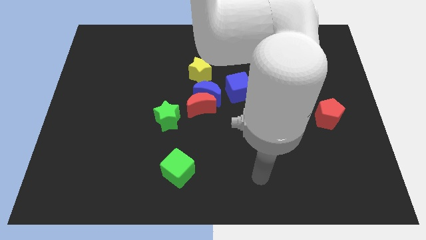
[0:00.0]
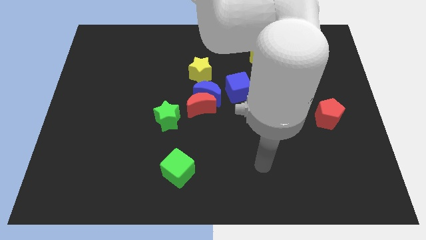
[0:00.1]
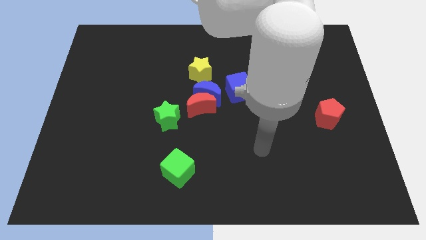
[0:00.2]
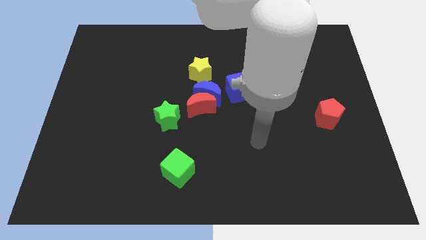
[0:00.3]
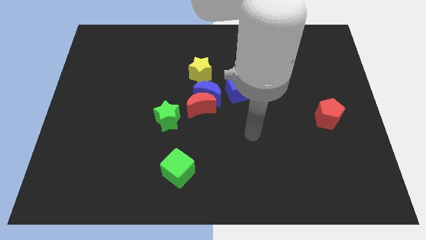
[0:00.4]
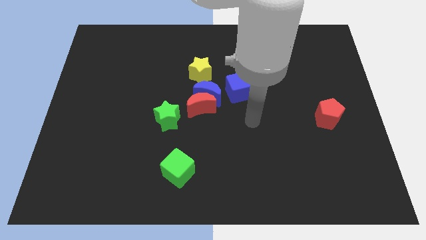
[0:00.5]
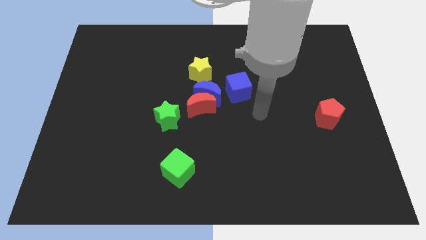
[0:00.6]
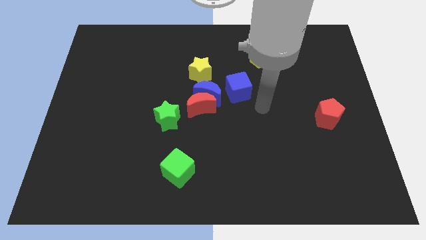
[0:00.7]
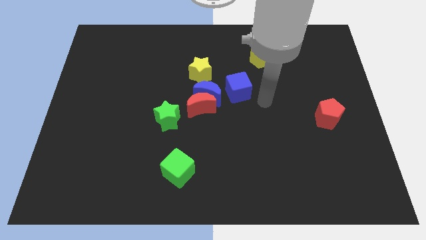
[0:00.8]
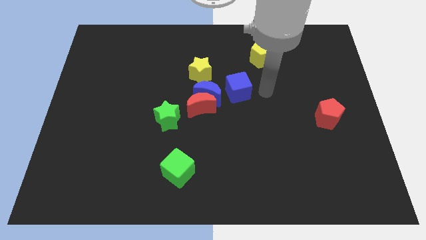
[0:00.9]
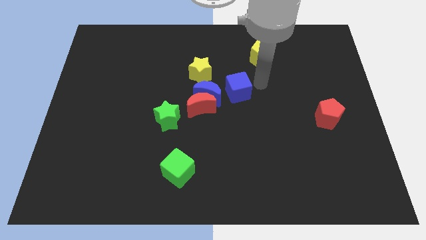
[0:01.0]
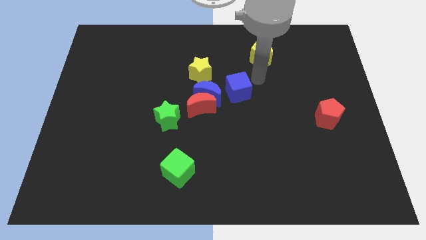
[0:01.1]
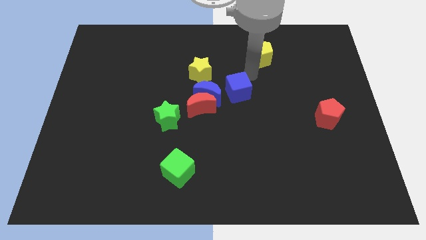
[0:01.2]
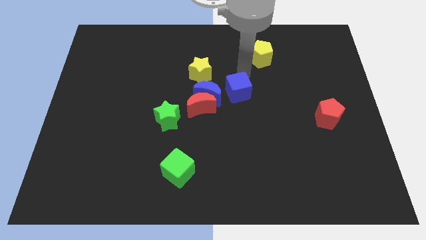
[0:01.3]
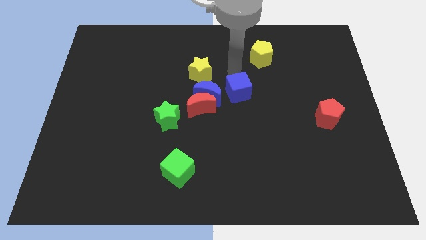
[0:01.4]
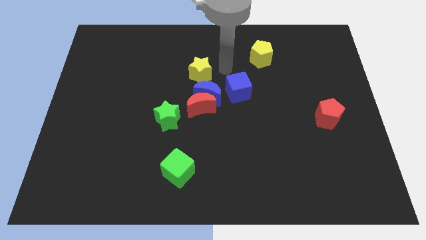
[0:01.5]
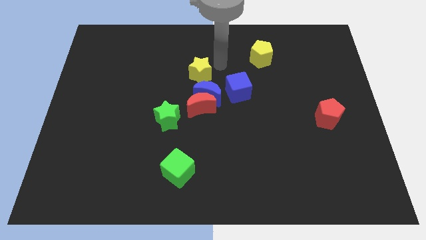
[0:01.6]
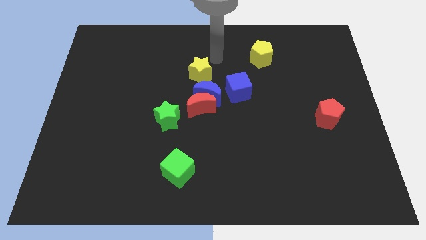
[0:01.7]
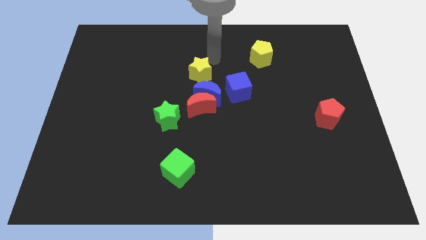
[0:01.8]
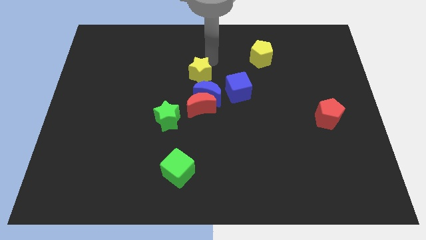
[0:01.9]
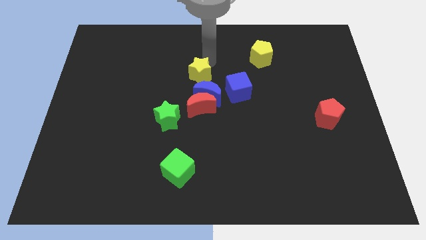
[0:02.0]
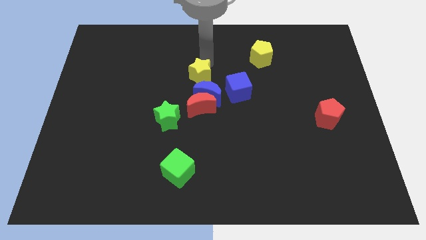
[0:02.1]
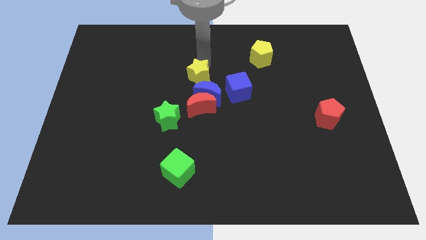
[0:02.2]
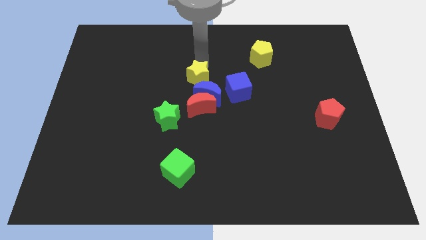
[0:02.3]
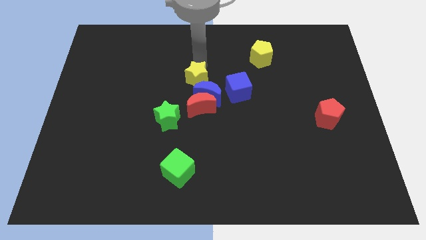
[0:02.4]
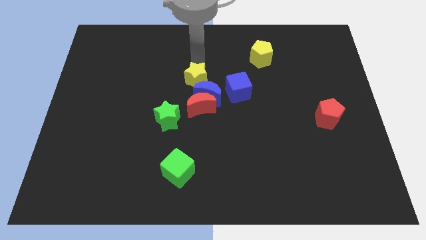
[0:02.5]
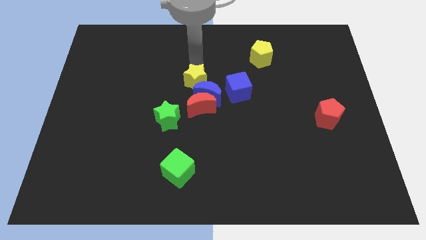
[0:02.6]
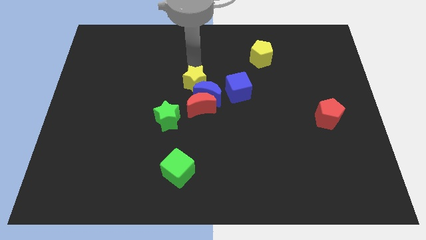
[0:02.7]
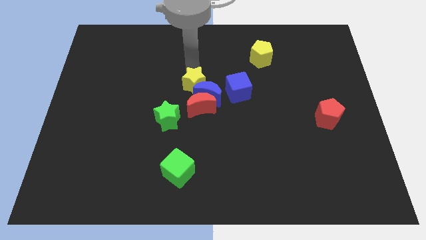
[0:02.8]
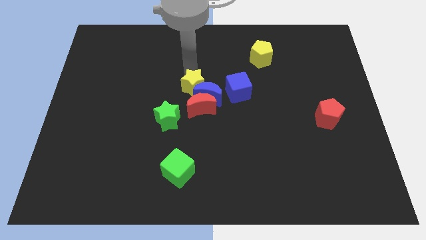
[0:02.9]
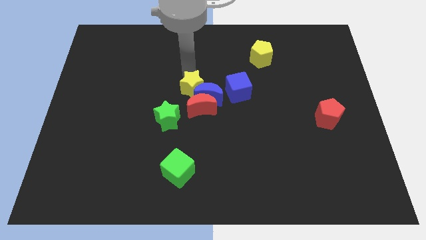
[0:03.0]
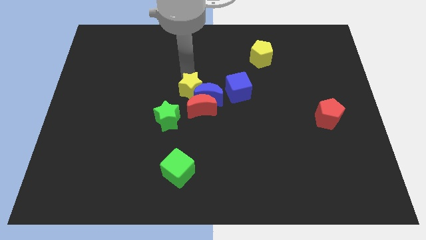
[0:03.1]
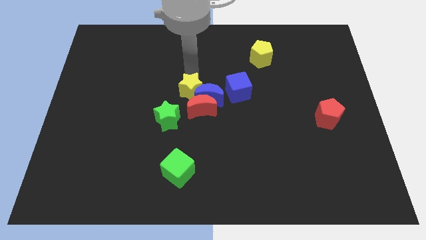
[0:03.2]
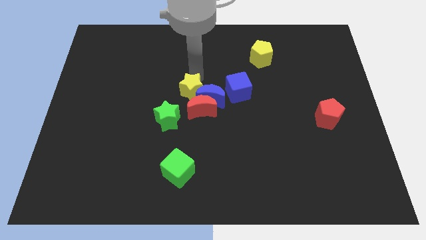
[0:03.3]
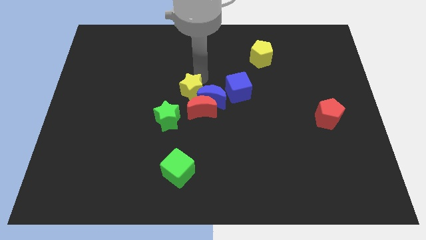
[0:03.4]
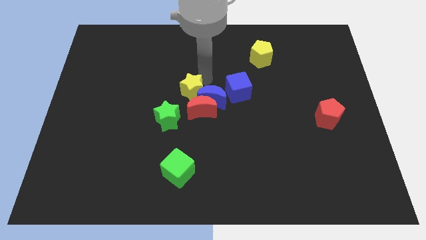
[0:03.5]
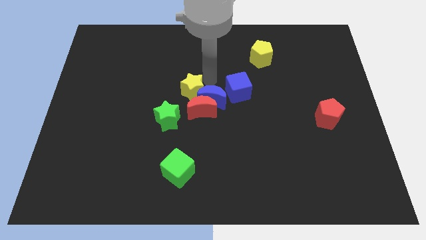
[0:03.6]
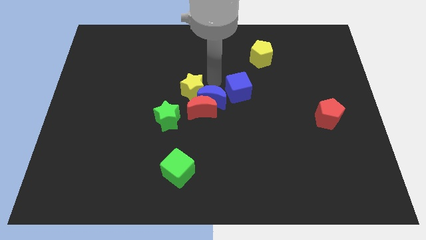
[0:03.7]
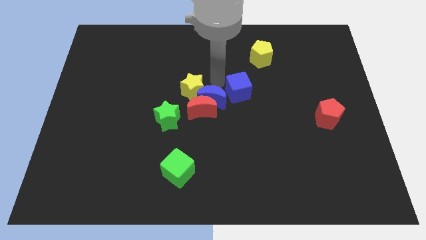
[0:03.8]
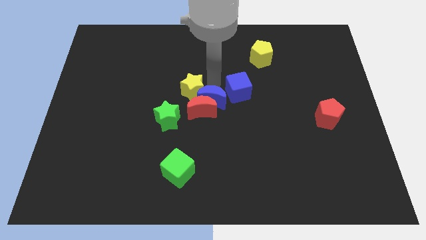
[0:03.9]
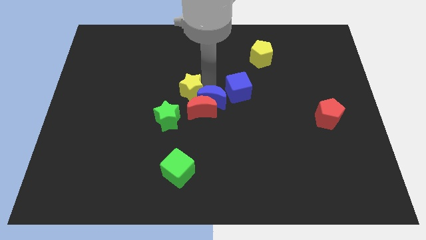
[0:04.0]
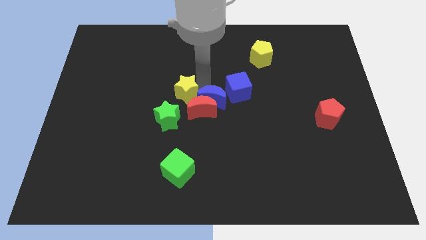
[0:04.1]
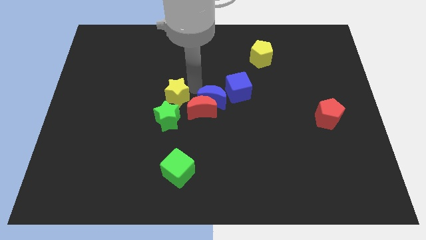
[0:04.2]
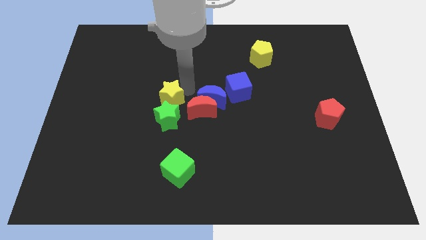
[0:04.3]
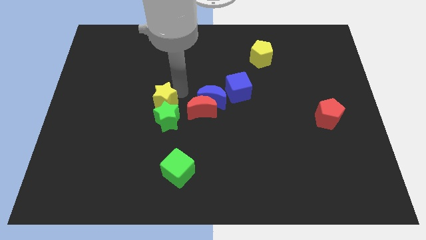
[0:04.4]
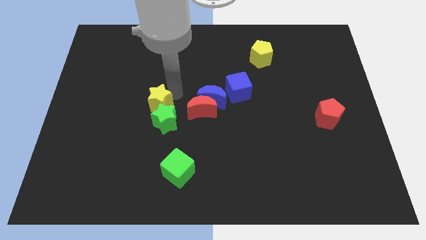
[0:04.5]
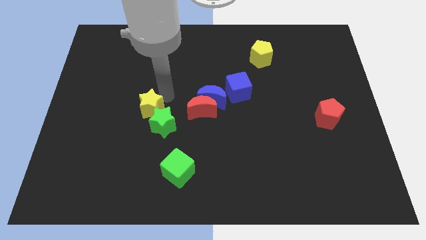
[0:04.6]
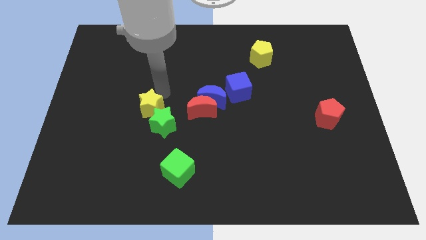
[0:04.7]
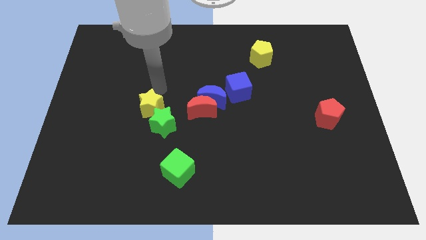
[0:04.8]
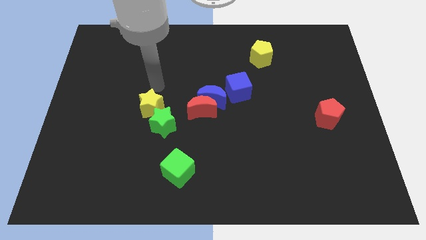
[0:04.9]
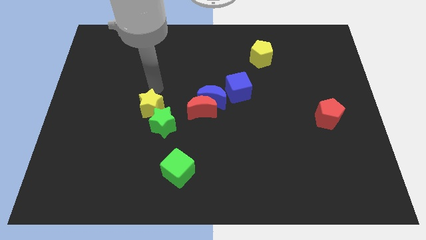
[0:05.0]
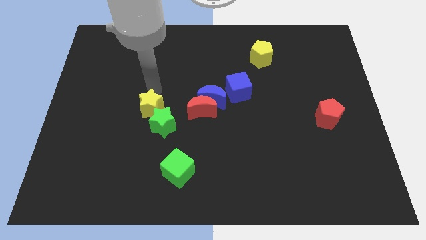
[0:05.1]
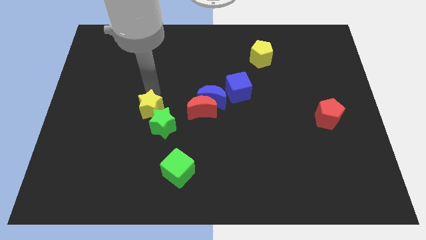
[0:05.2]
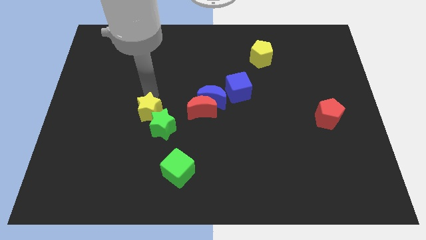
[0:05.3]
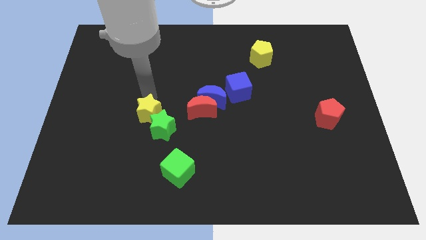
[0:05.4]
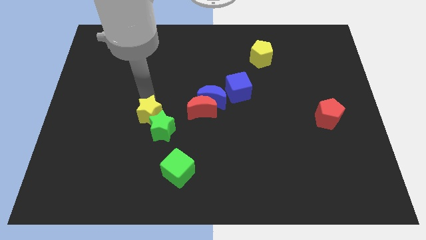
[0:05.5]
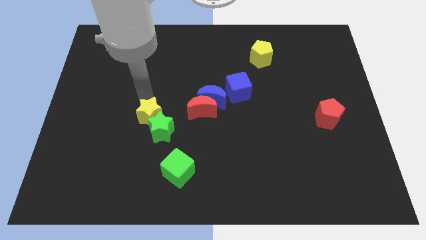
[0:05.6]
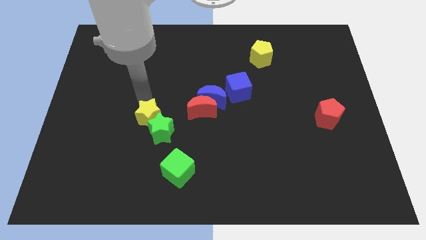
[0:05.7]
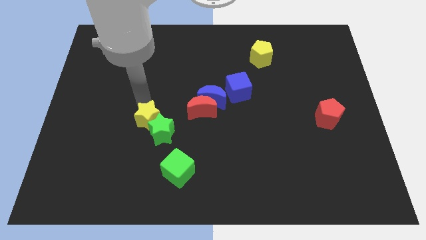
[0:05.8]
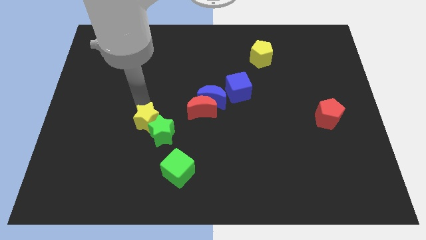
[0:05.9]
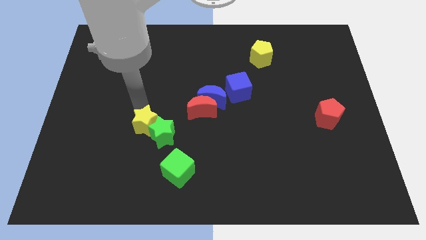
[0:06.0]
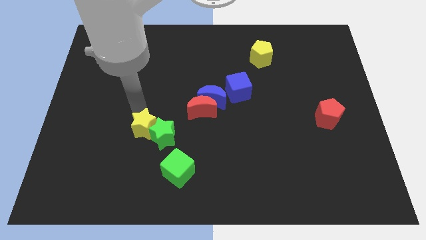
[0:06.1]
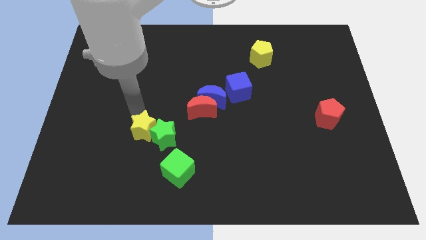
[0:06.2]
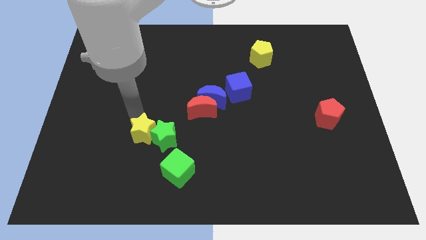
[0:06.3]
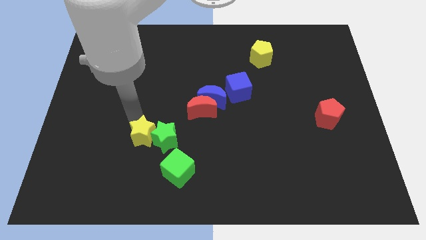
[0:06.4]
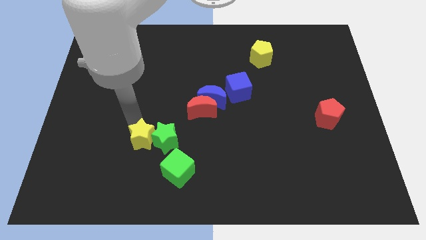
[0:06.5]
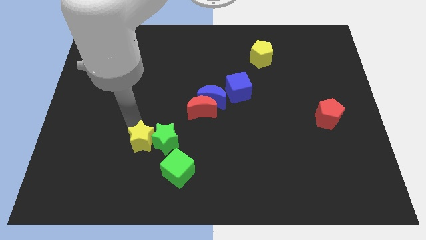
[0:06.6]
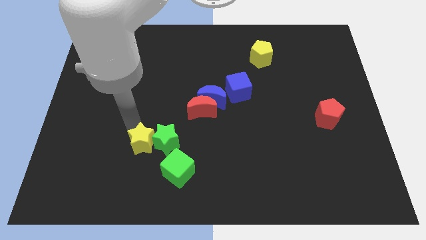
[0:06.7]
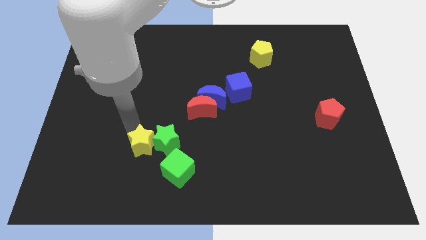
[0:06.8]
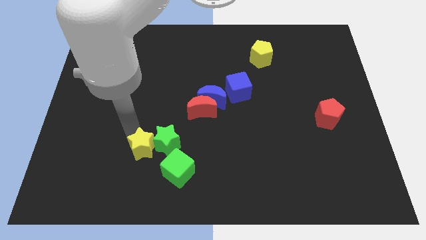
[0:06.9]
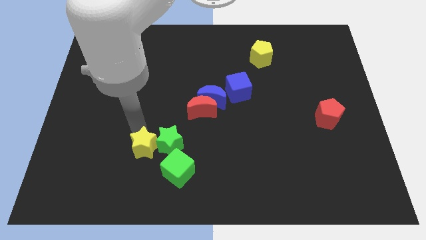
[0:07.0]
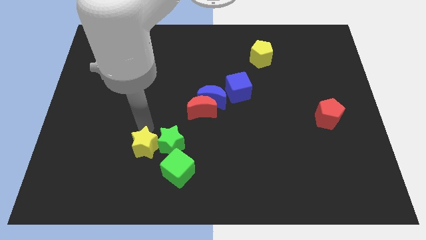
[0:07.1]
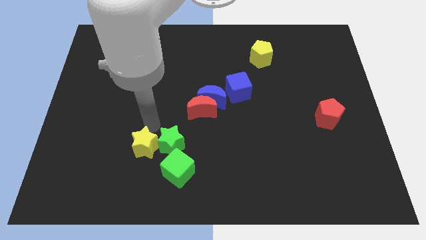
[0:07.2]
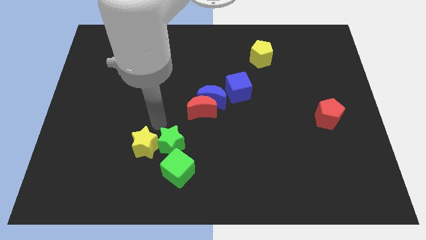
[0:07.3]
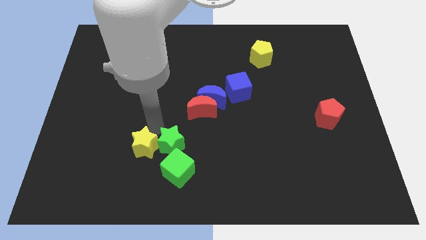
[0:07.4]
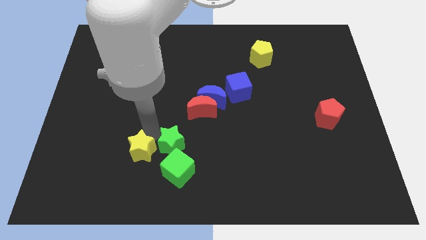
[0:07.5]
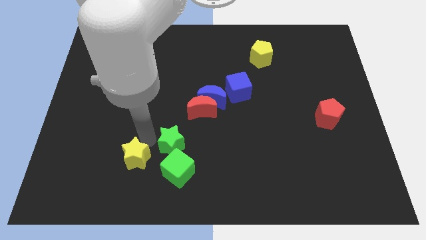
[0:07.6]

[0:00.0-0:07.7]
put the yellow star to the left of the green cube
